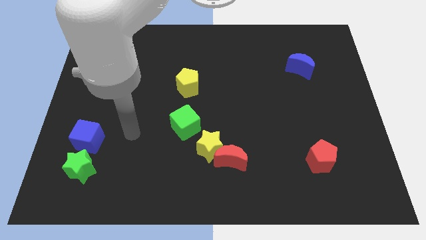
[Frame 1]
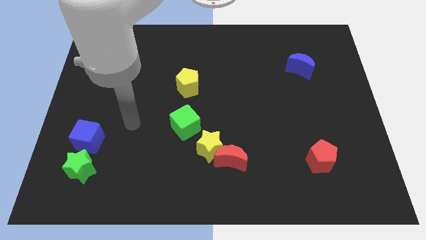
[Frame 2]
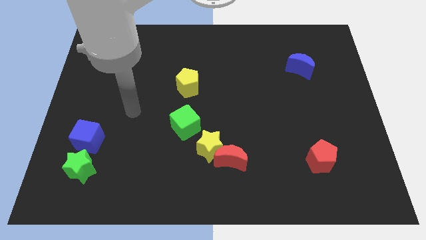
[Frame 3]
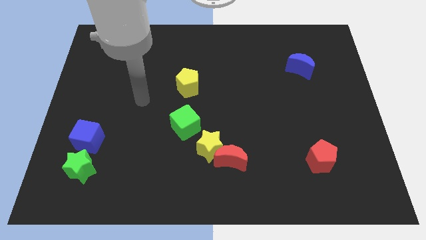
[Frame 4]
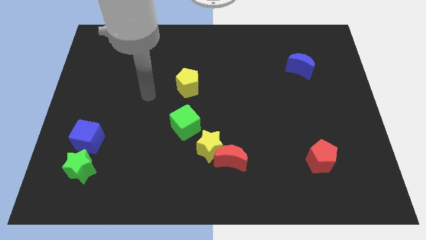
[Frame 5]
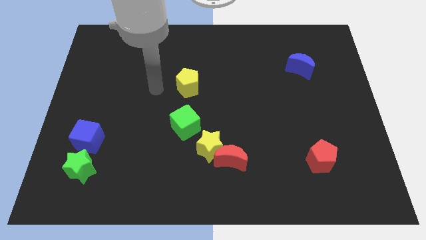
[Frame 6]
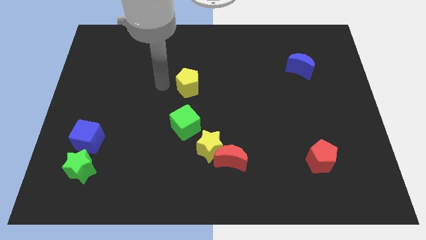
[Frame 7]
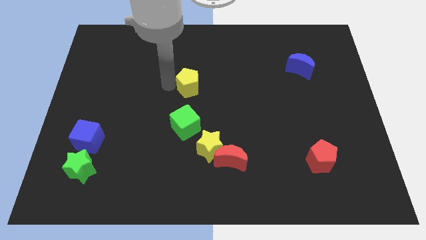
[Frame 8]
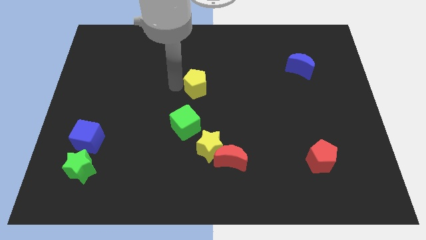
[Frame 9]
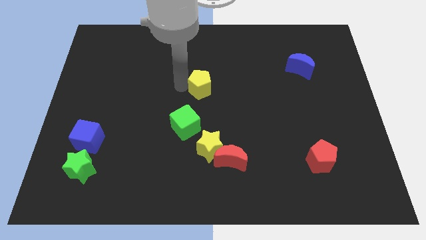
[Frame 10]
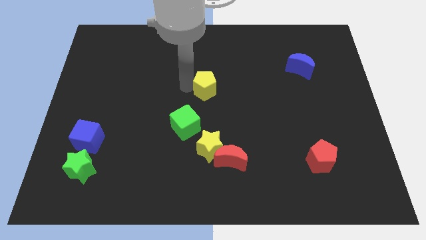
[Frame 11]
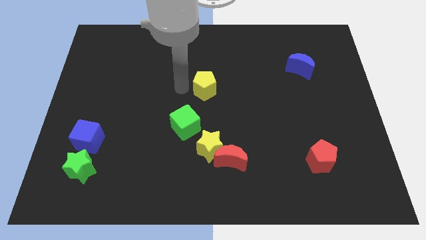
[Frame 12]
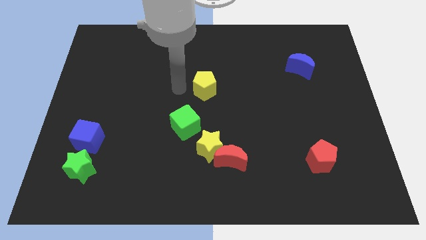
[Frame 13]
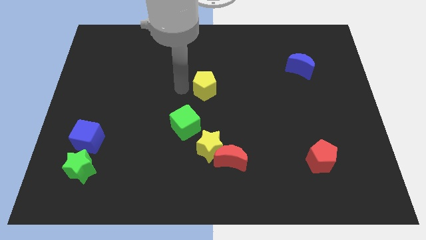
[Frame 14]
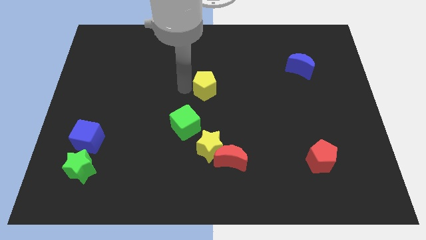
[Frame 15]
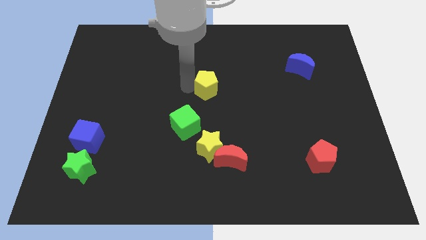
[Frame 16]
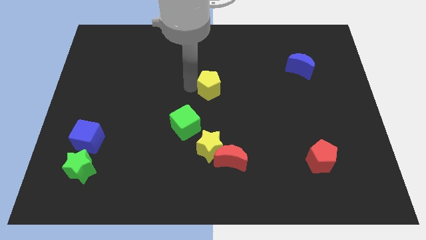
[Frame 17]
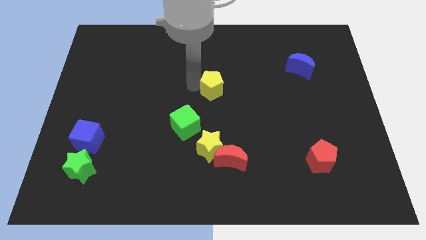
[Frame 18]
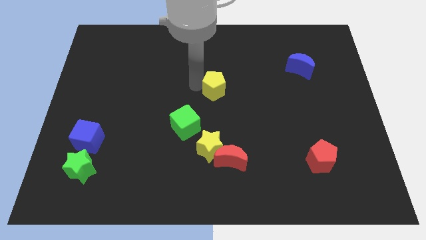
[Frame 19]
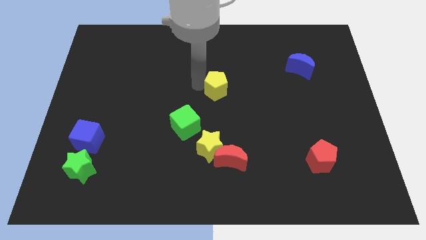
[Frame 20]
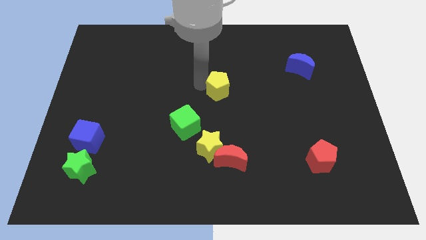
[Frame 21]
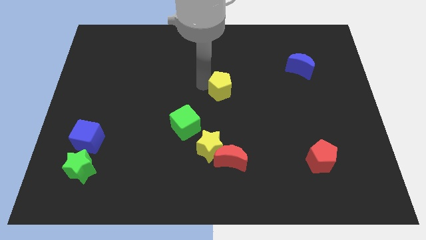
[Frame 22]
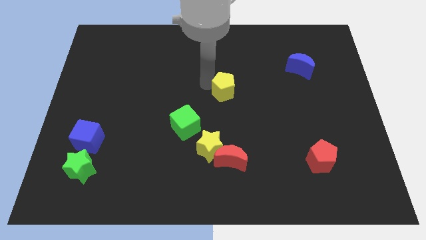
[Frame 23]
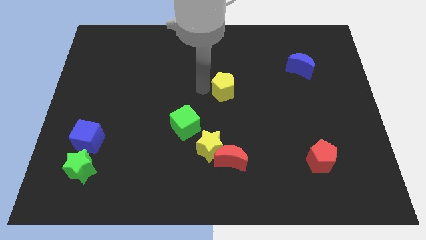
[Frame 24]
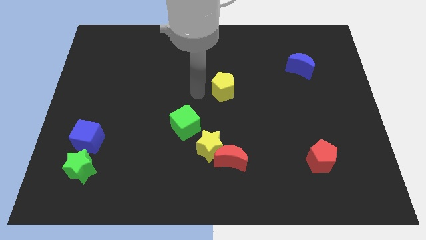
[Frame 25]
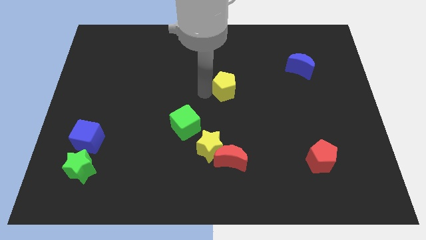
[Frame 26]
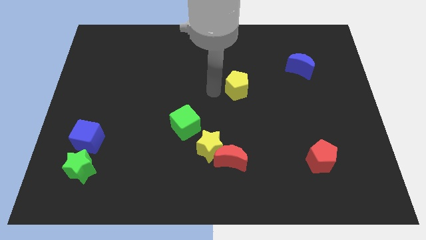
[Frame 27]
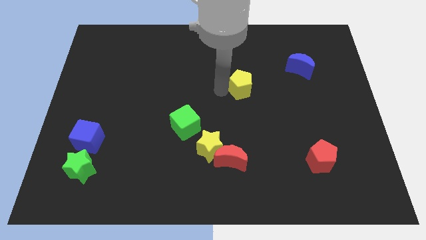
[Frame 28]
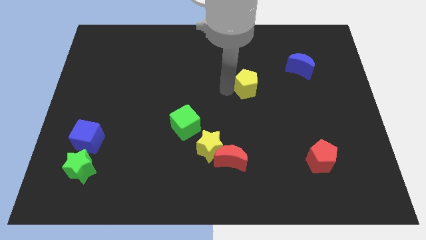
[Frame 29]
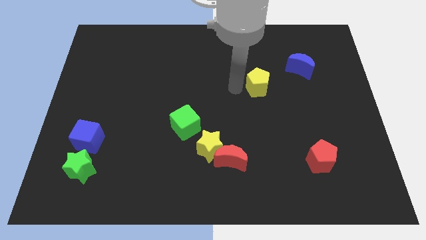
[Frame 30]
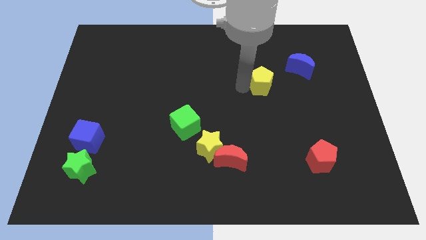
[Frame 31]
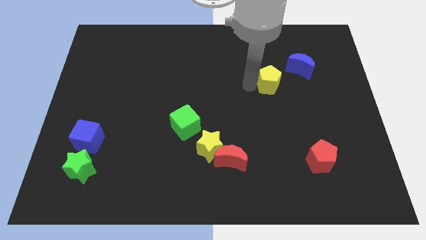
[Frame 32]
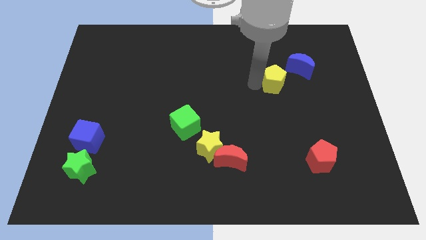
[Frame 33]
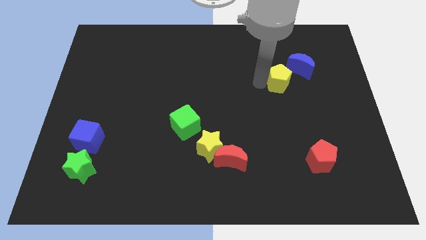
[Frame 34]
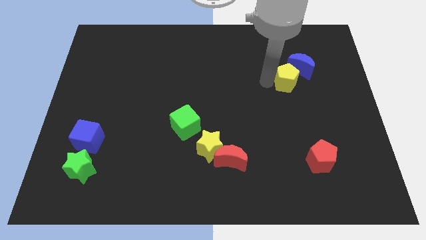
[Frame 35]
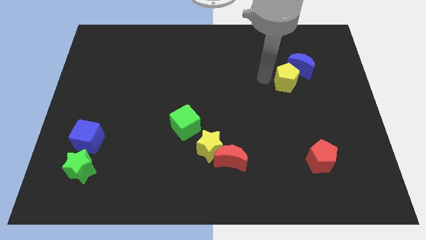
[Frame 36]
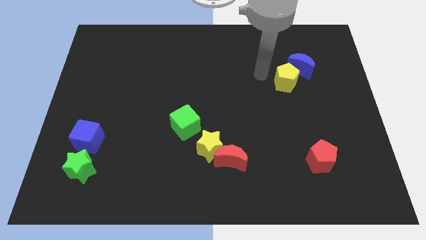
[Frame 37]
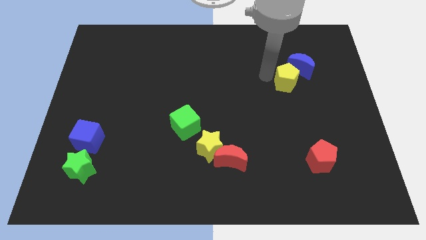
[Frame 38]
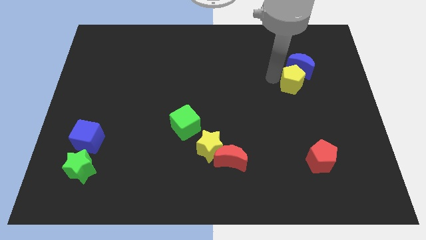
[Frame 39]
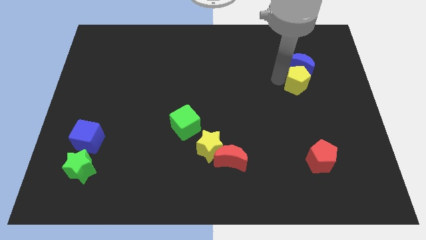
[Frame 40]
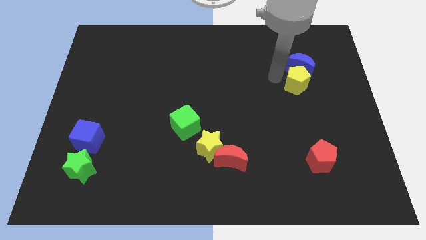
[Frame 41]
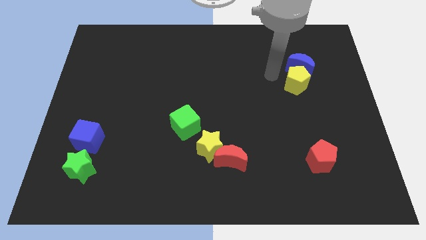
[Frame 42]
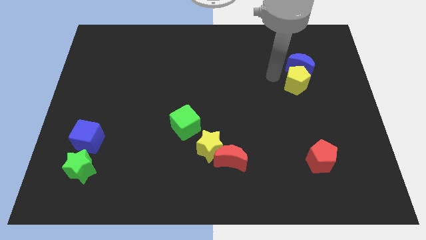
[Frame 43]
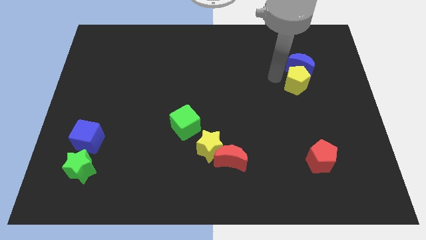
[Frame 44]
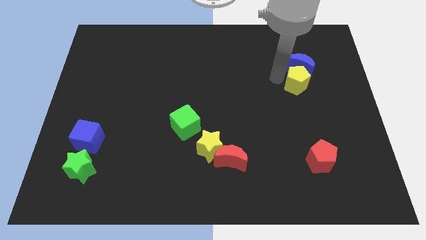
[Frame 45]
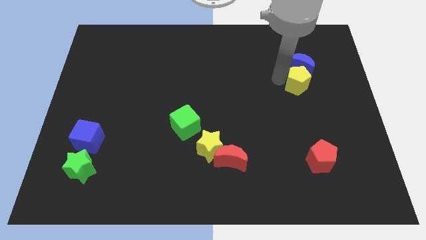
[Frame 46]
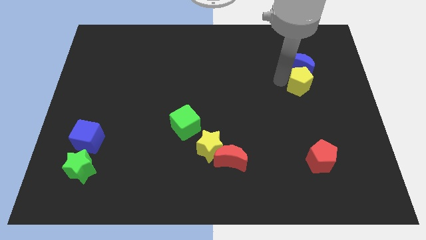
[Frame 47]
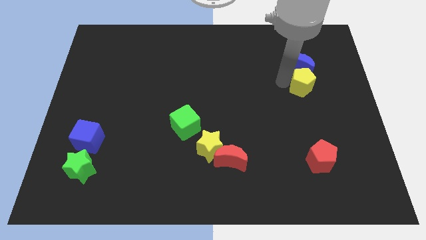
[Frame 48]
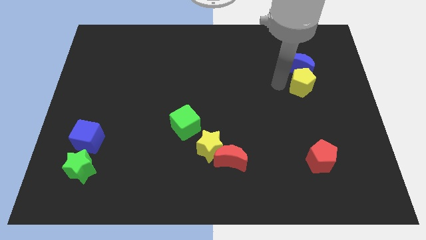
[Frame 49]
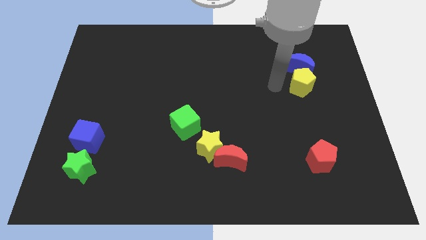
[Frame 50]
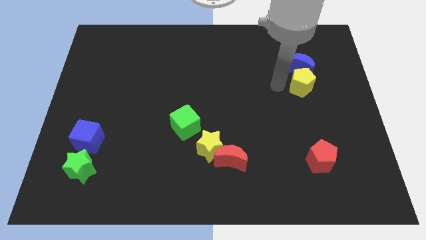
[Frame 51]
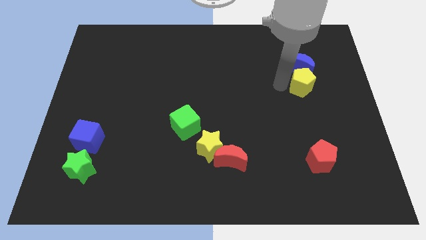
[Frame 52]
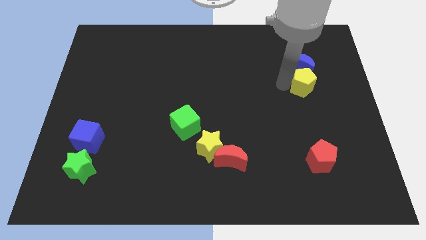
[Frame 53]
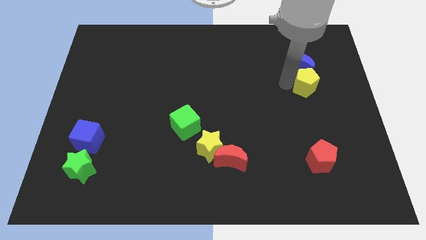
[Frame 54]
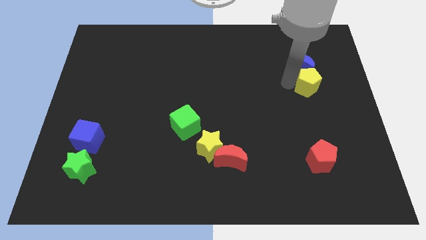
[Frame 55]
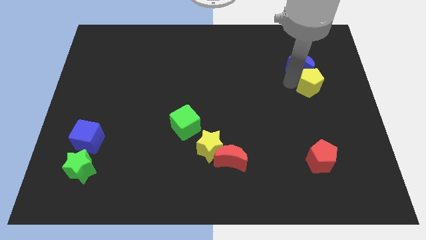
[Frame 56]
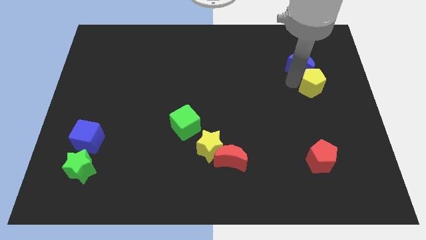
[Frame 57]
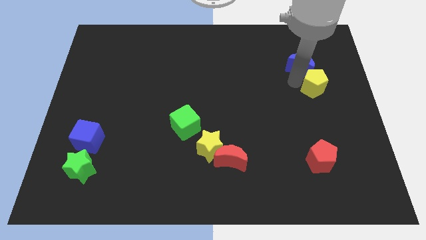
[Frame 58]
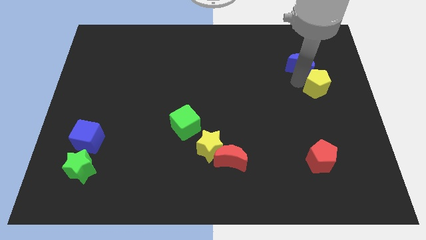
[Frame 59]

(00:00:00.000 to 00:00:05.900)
push the yellow pentagon to the right side of the board

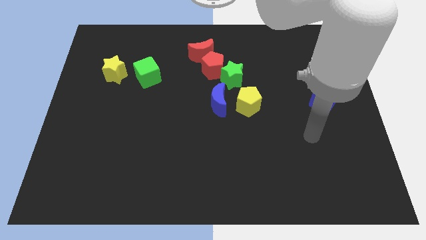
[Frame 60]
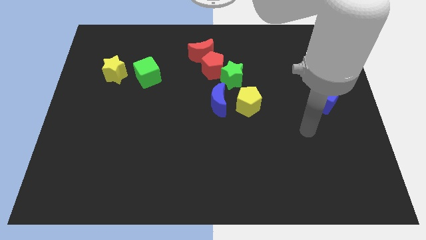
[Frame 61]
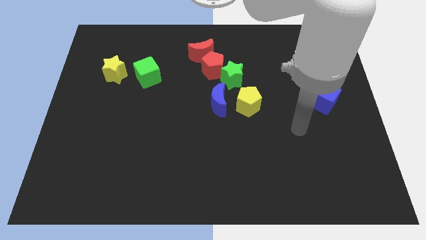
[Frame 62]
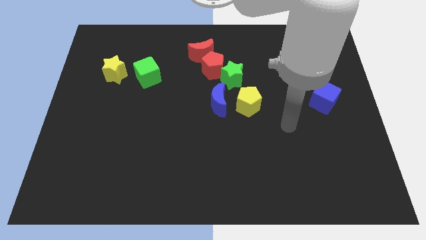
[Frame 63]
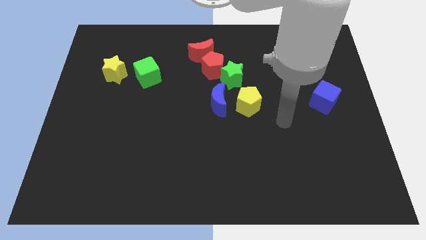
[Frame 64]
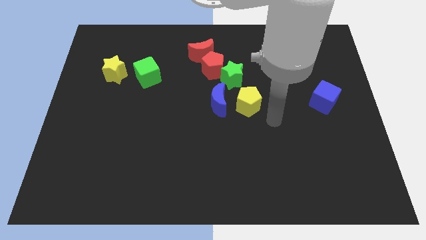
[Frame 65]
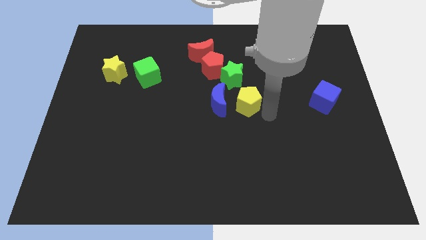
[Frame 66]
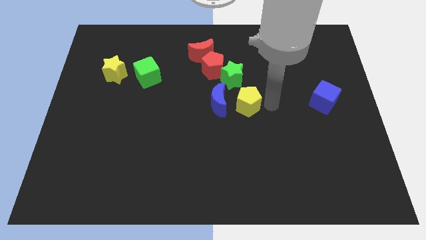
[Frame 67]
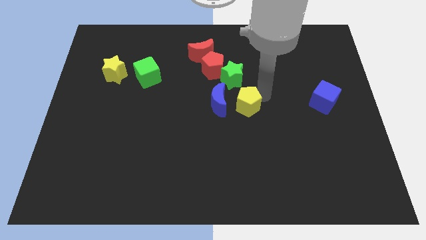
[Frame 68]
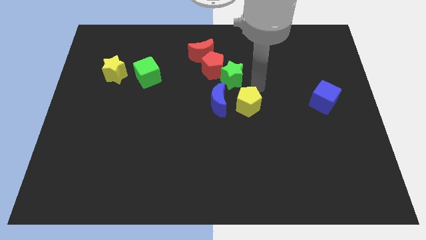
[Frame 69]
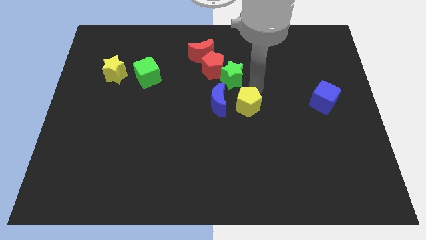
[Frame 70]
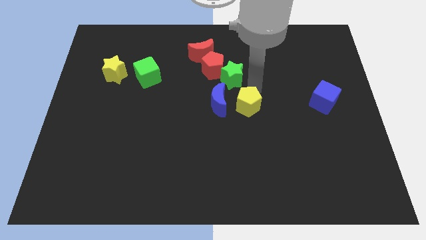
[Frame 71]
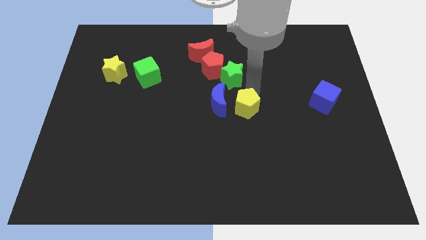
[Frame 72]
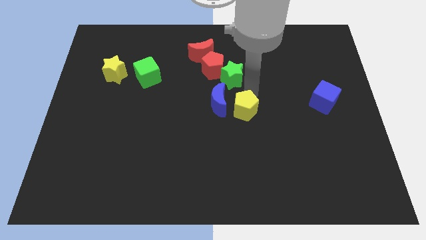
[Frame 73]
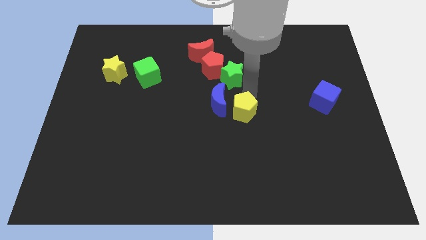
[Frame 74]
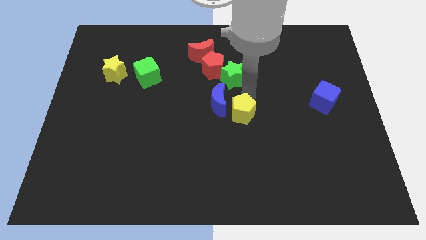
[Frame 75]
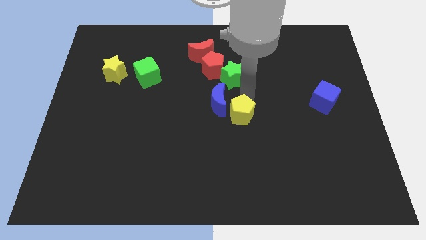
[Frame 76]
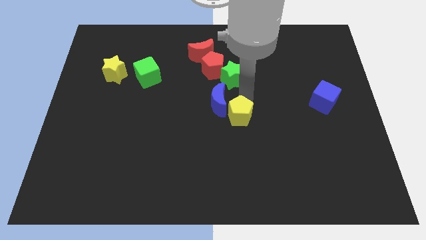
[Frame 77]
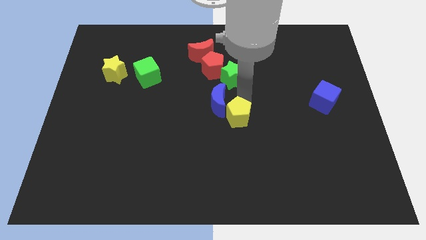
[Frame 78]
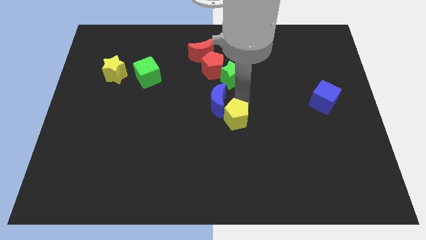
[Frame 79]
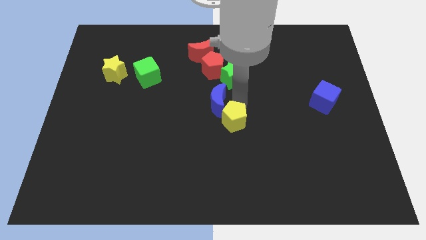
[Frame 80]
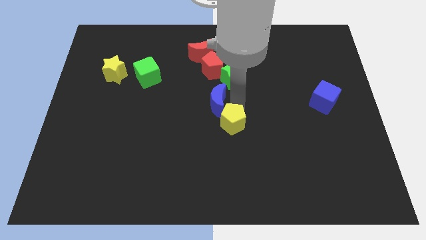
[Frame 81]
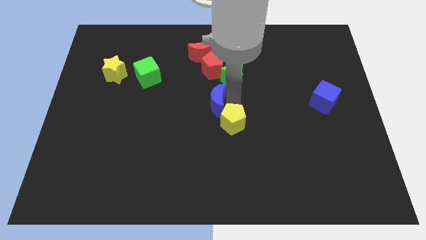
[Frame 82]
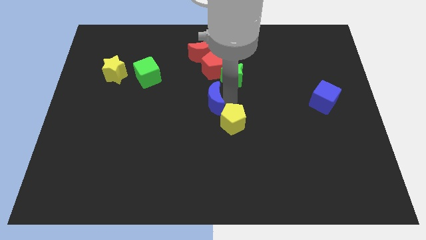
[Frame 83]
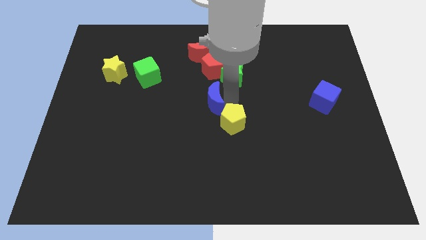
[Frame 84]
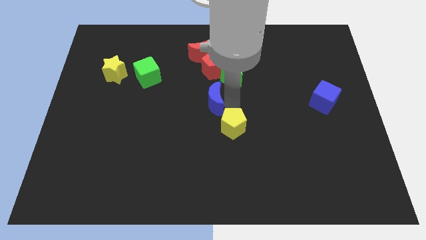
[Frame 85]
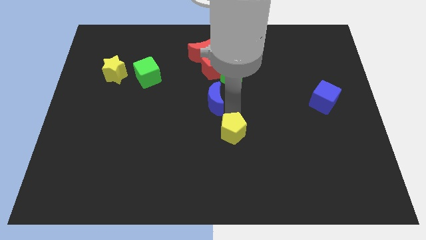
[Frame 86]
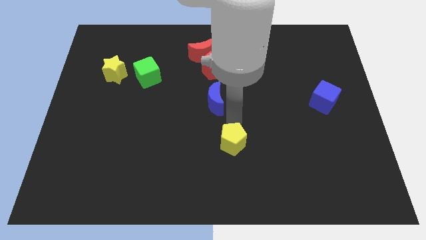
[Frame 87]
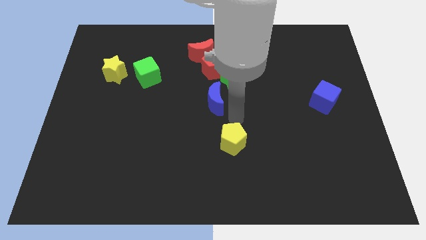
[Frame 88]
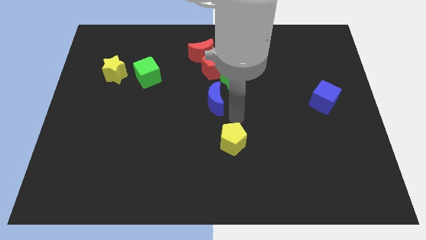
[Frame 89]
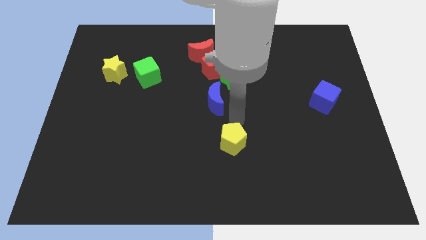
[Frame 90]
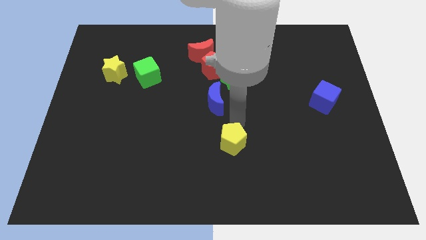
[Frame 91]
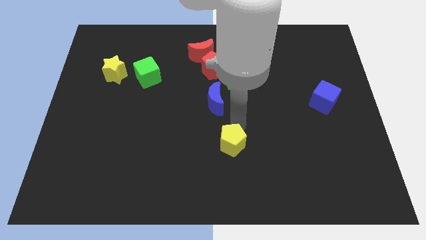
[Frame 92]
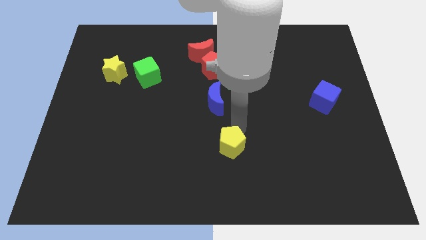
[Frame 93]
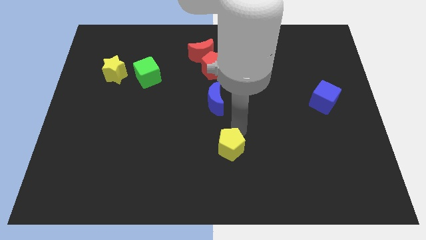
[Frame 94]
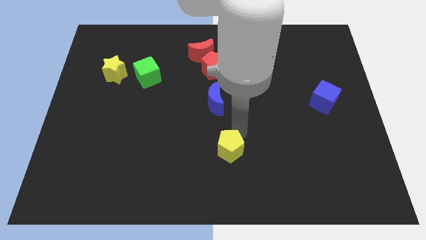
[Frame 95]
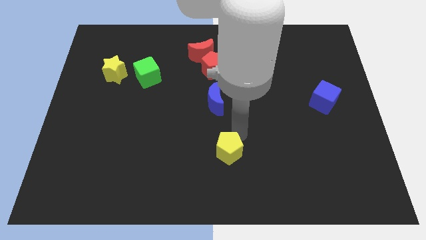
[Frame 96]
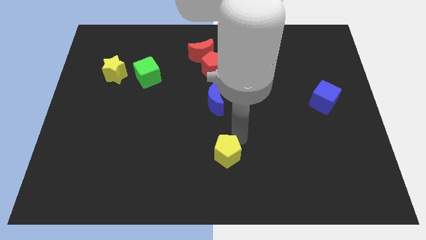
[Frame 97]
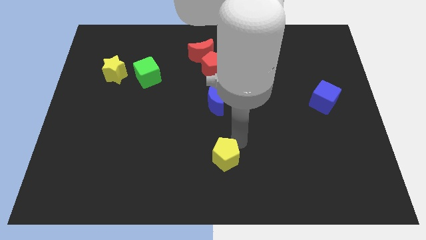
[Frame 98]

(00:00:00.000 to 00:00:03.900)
slide the yellow pentagon to the bottom side
